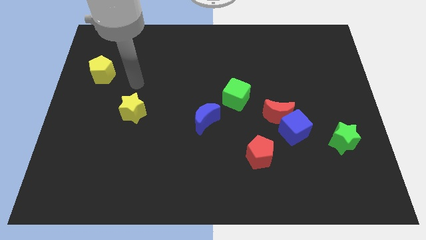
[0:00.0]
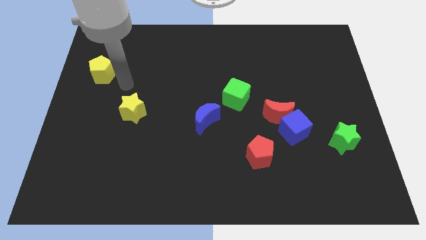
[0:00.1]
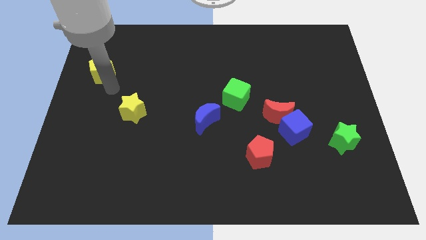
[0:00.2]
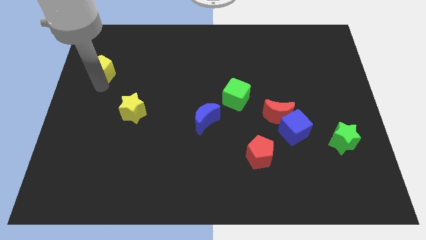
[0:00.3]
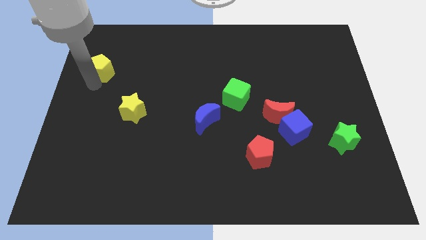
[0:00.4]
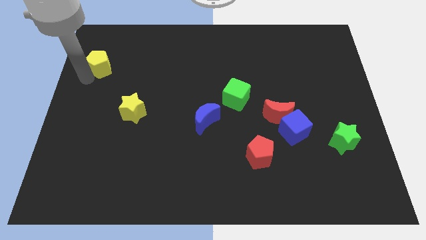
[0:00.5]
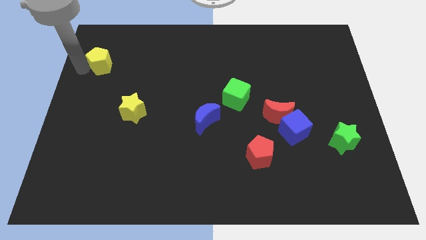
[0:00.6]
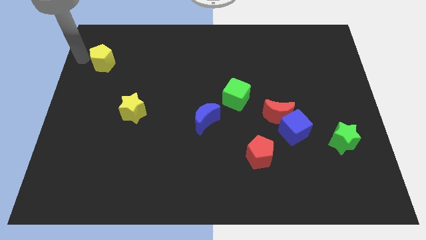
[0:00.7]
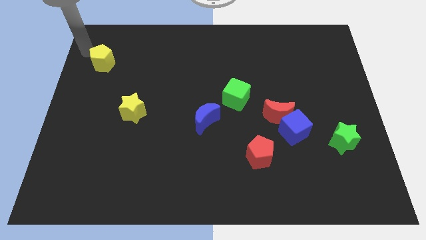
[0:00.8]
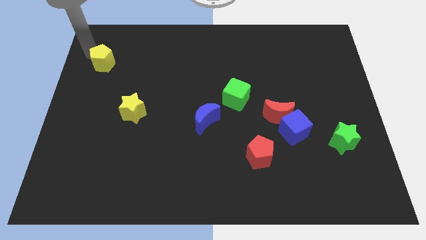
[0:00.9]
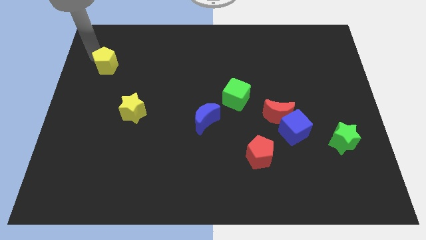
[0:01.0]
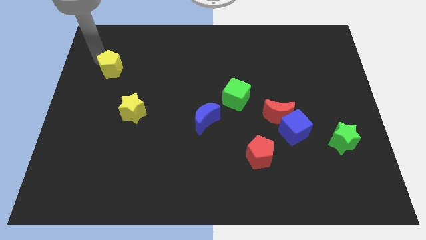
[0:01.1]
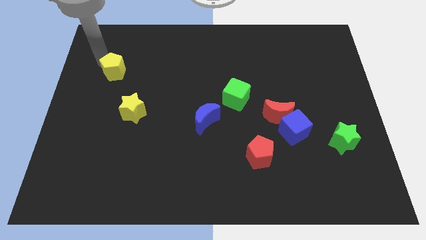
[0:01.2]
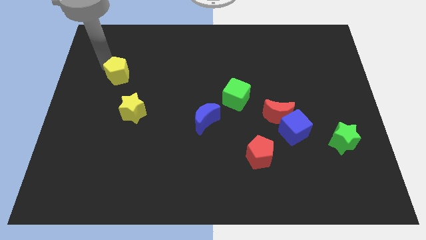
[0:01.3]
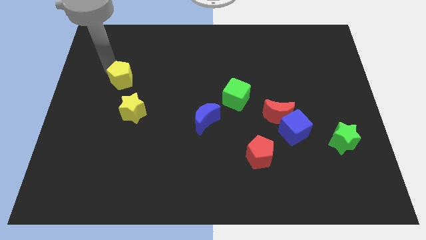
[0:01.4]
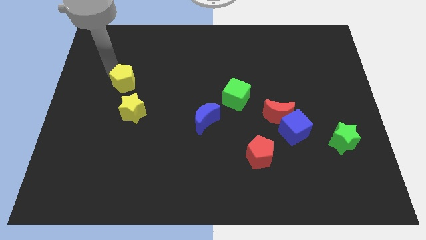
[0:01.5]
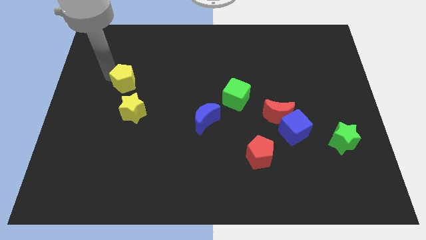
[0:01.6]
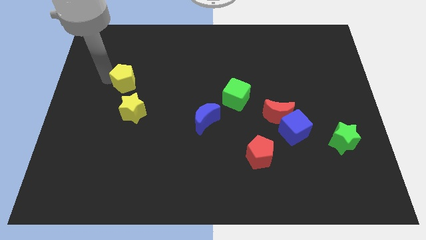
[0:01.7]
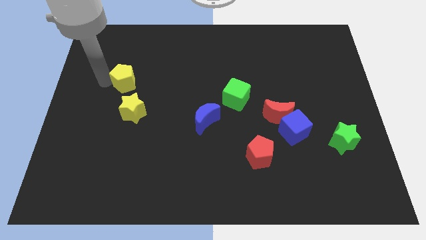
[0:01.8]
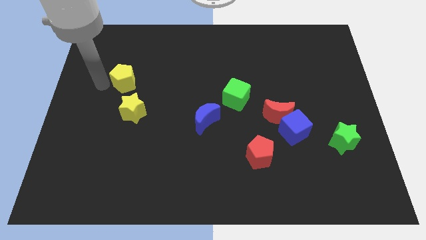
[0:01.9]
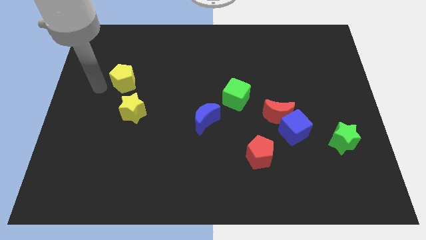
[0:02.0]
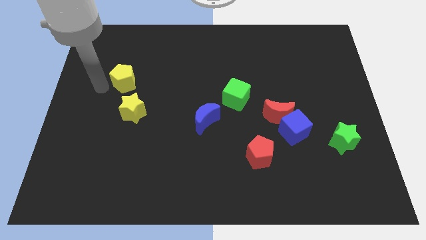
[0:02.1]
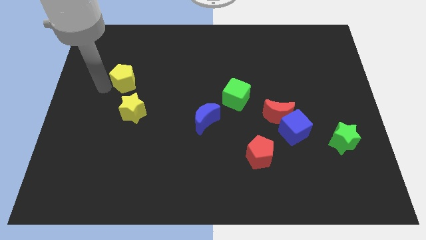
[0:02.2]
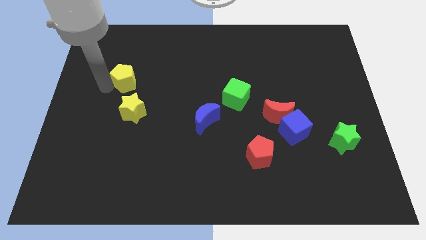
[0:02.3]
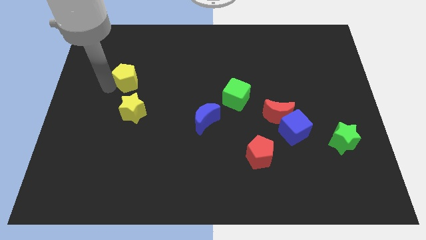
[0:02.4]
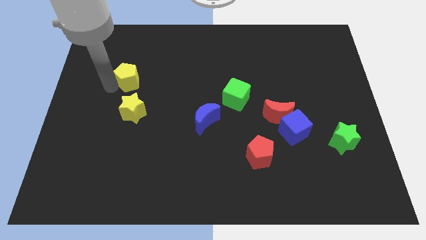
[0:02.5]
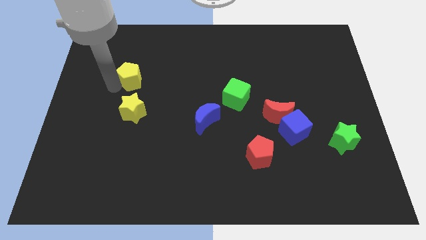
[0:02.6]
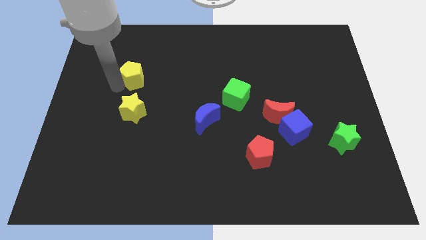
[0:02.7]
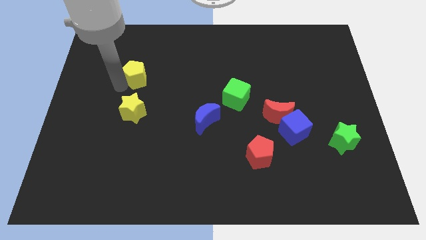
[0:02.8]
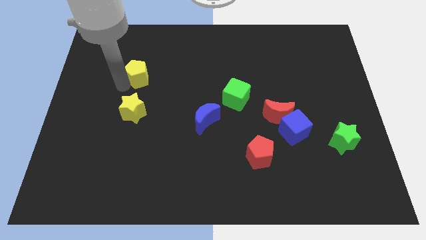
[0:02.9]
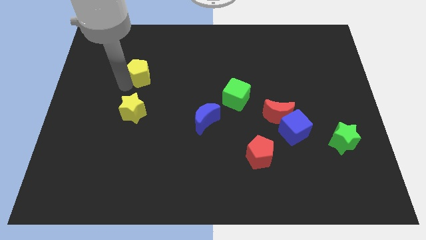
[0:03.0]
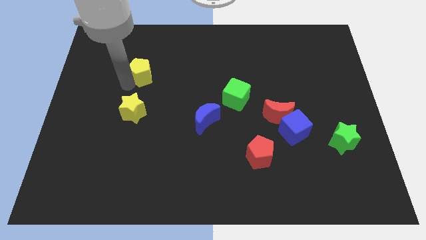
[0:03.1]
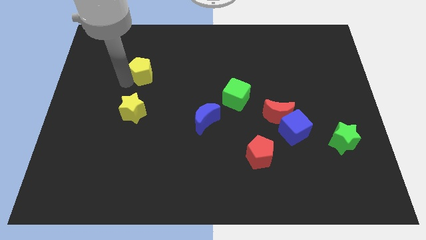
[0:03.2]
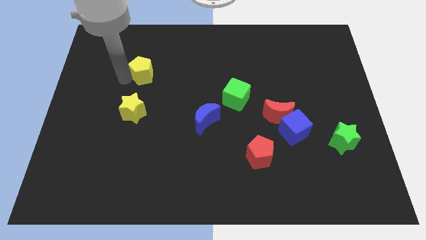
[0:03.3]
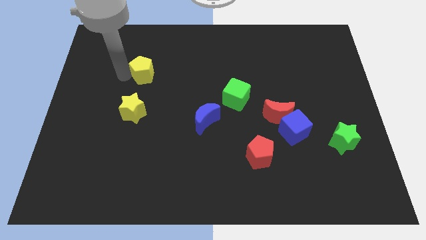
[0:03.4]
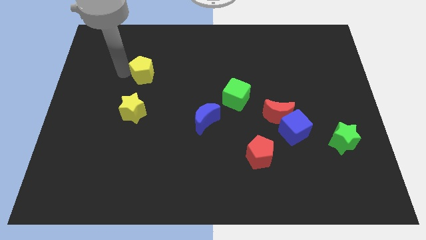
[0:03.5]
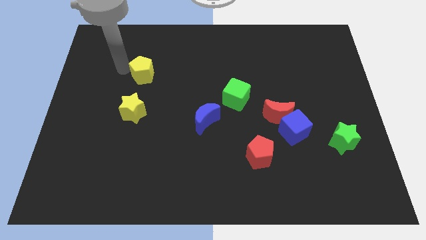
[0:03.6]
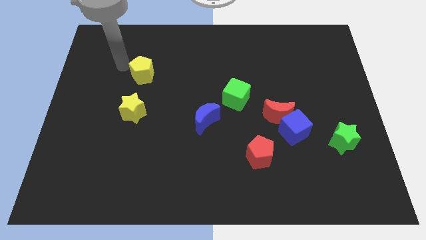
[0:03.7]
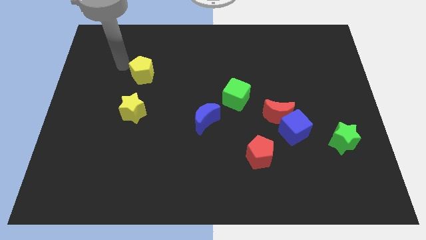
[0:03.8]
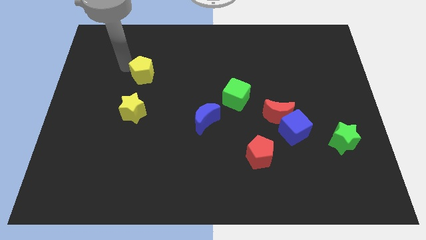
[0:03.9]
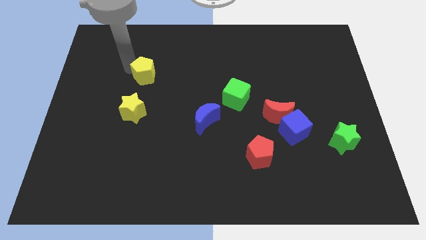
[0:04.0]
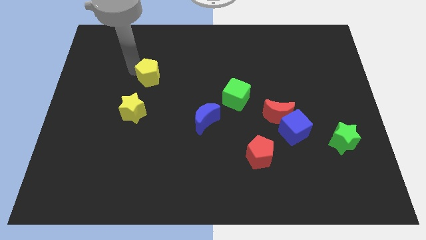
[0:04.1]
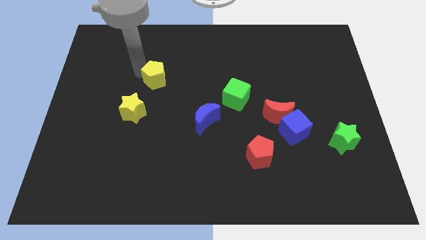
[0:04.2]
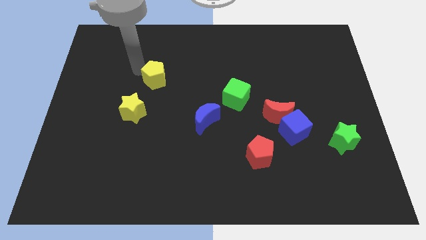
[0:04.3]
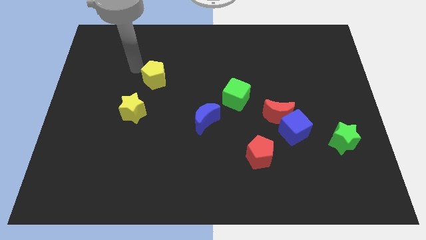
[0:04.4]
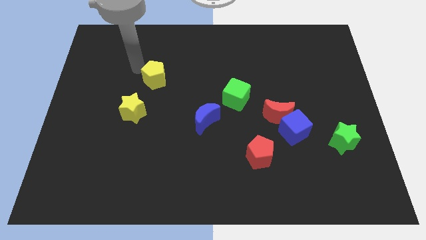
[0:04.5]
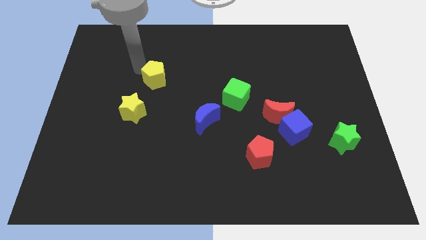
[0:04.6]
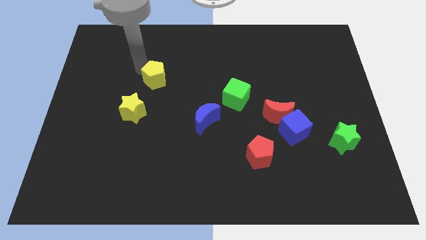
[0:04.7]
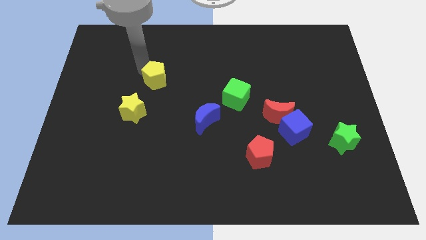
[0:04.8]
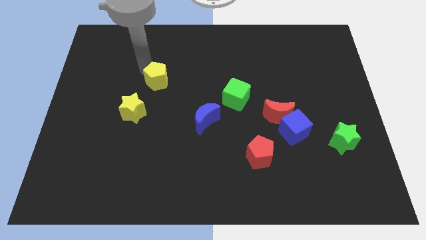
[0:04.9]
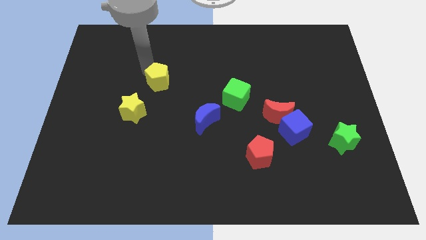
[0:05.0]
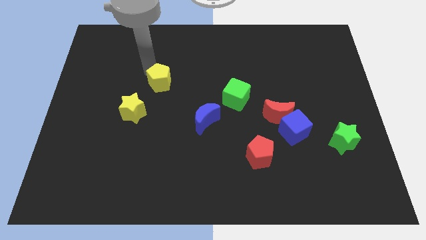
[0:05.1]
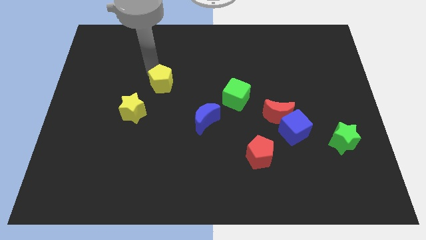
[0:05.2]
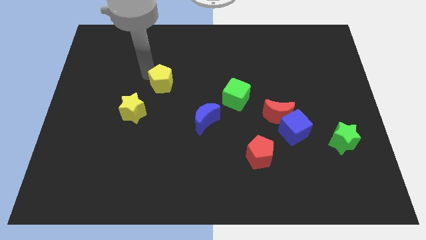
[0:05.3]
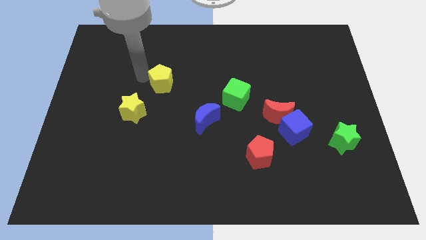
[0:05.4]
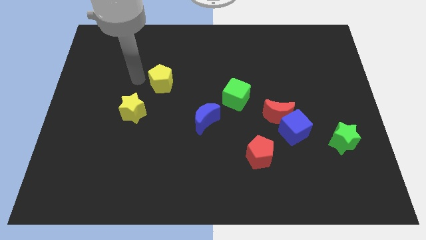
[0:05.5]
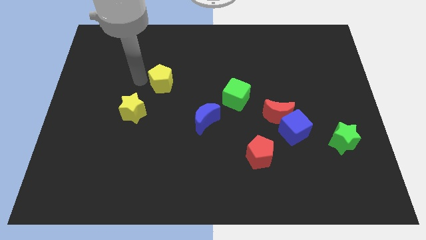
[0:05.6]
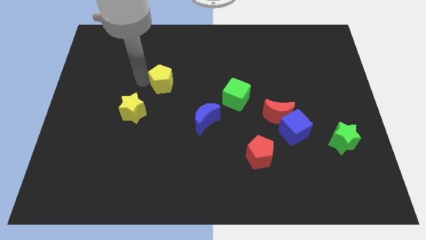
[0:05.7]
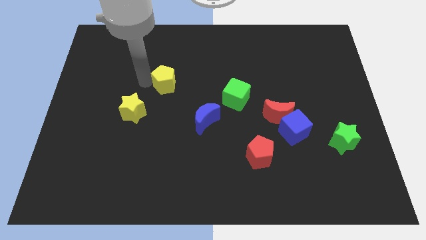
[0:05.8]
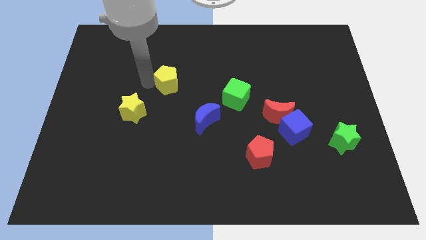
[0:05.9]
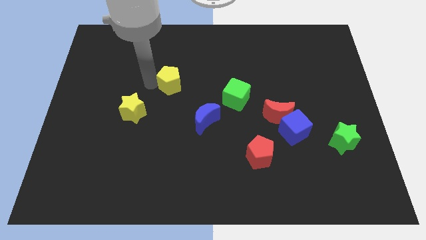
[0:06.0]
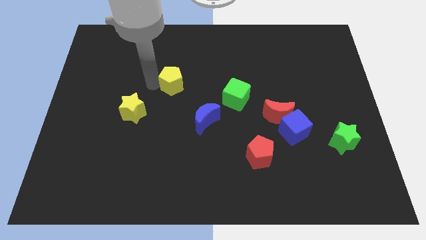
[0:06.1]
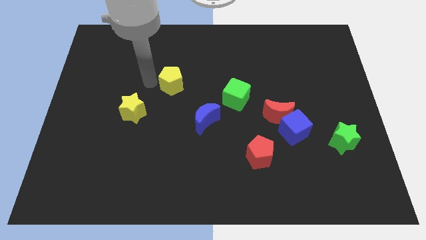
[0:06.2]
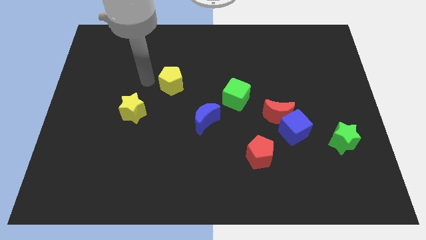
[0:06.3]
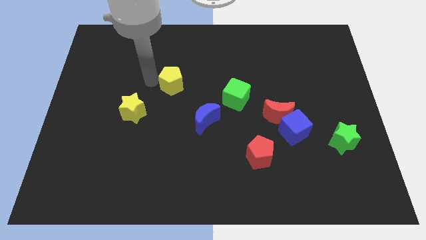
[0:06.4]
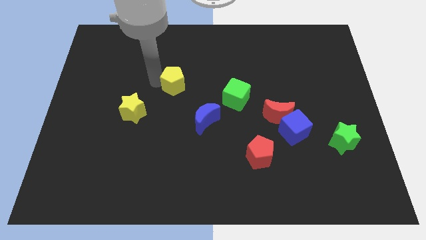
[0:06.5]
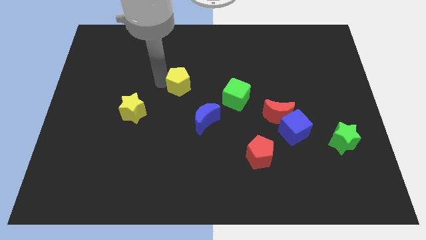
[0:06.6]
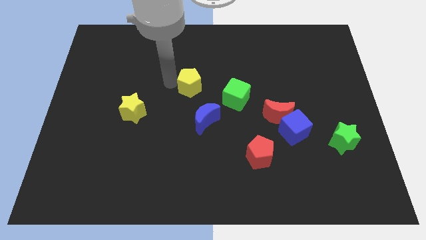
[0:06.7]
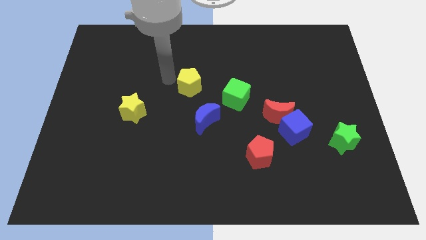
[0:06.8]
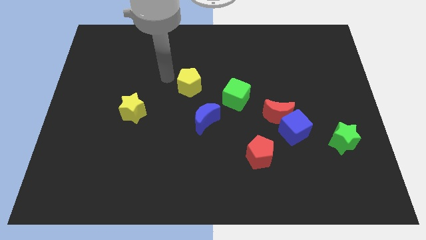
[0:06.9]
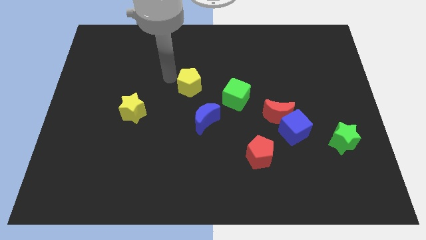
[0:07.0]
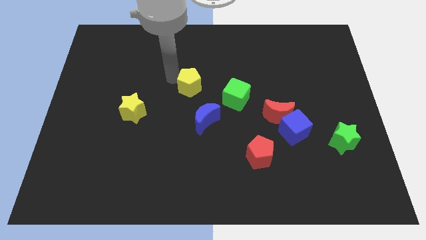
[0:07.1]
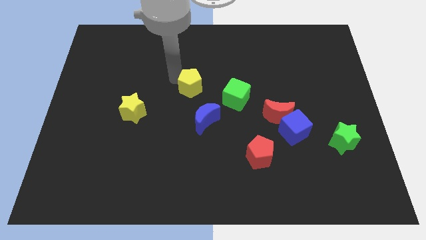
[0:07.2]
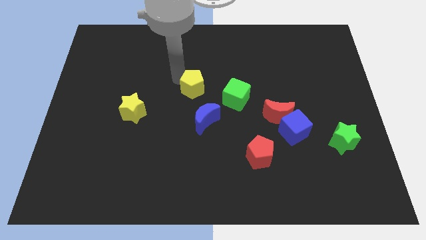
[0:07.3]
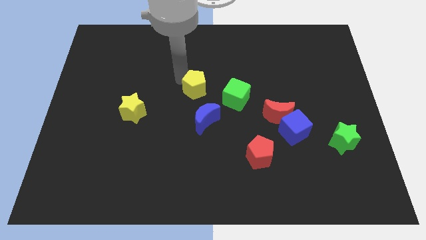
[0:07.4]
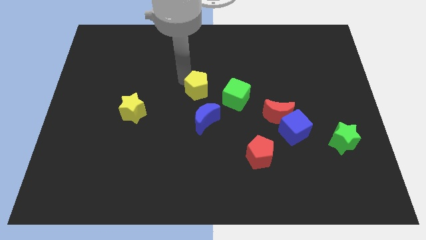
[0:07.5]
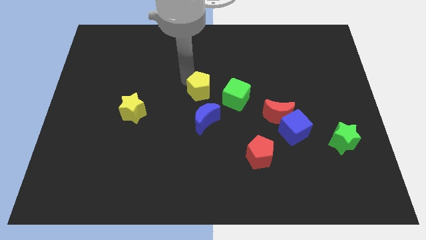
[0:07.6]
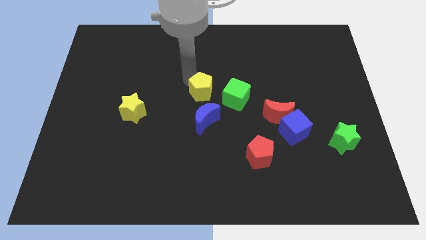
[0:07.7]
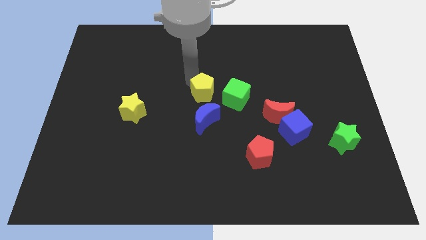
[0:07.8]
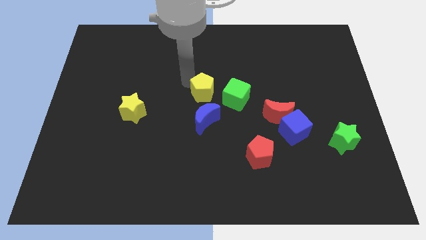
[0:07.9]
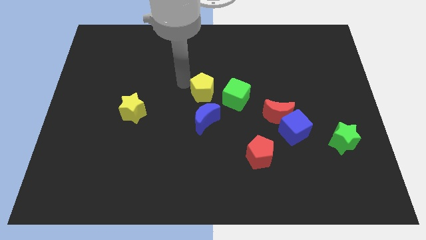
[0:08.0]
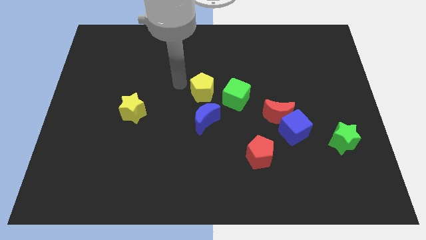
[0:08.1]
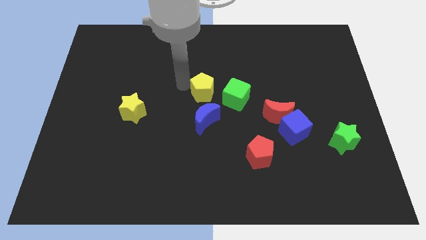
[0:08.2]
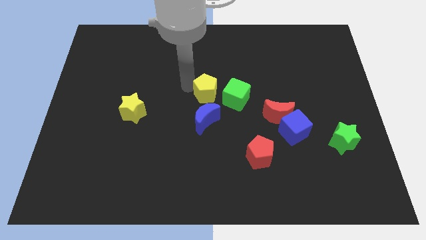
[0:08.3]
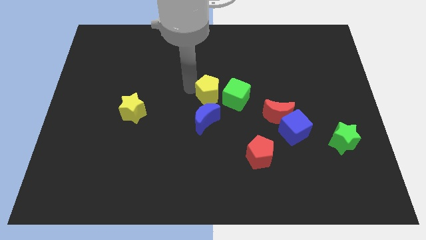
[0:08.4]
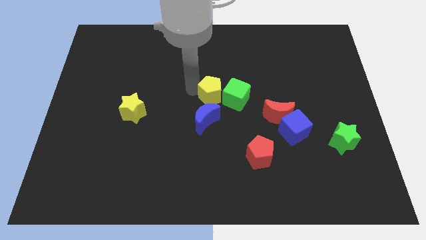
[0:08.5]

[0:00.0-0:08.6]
push the yellow pentagon to the green cube
